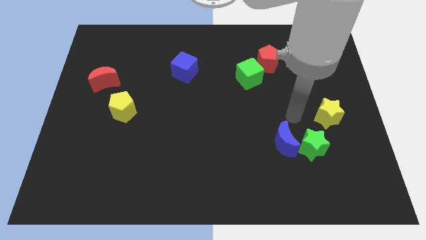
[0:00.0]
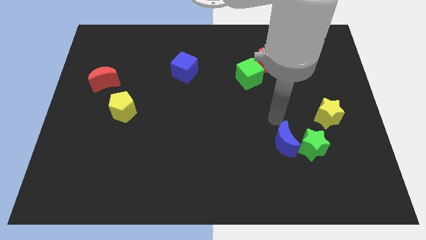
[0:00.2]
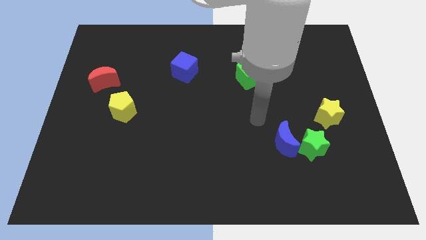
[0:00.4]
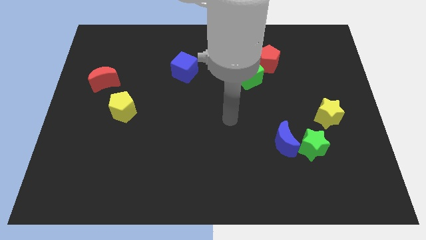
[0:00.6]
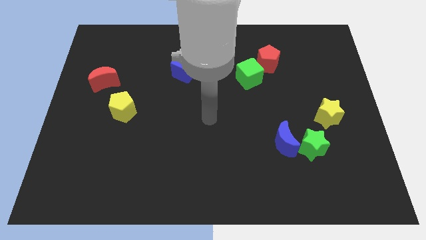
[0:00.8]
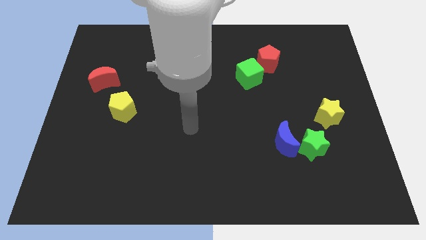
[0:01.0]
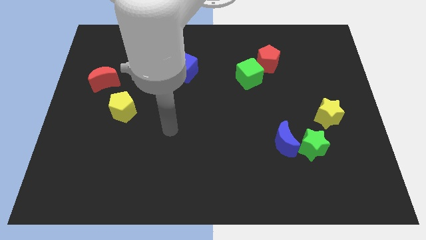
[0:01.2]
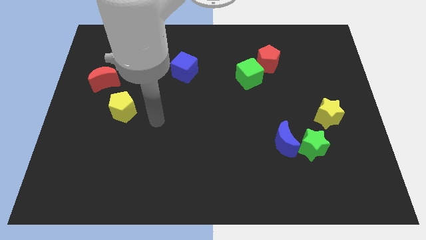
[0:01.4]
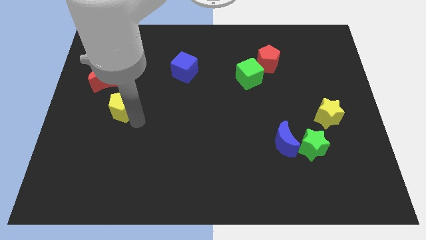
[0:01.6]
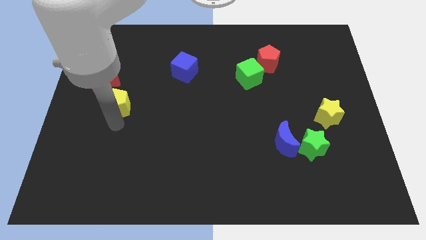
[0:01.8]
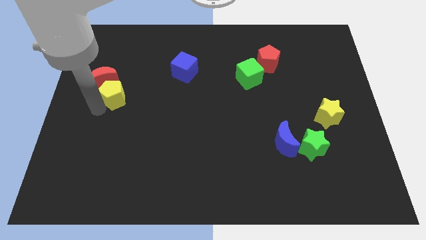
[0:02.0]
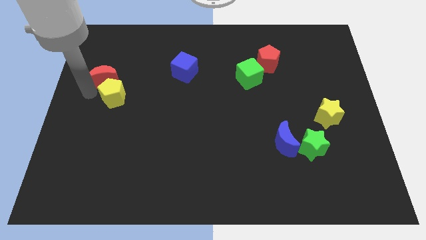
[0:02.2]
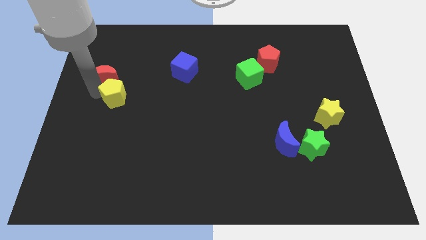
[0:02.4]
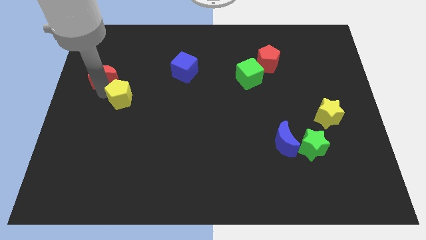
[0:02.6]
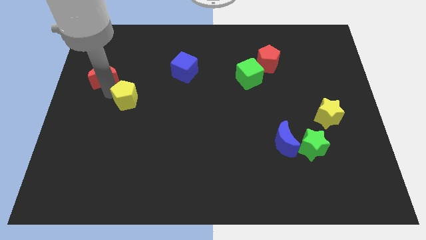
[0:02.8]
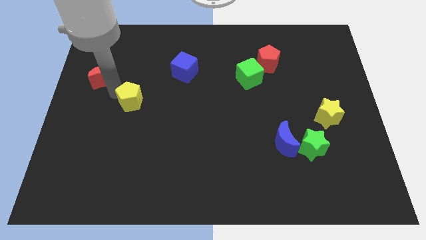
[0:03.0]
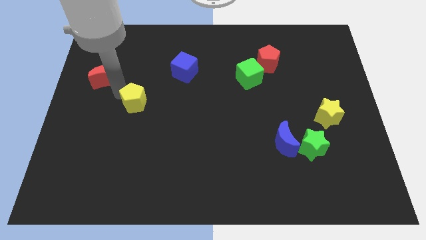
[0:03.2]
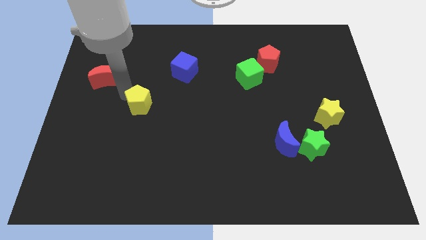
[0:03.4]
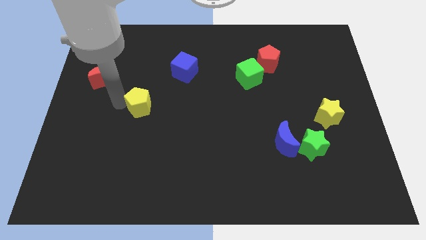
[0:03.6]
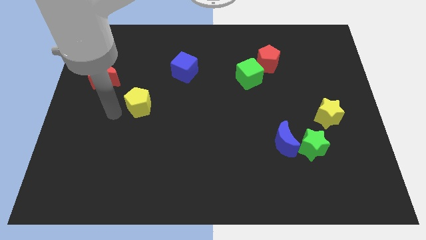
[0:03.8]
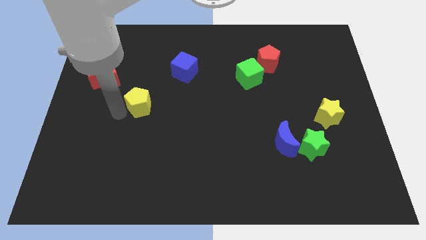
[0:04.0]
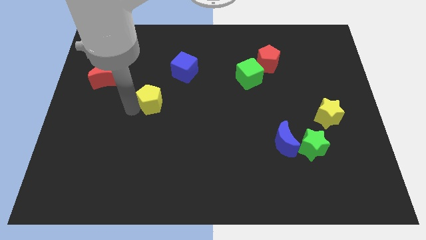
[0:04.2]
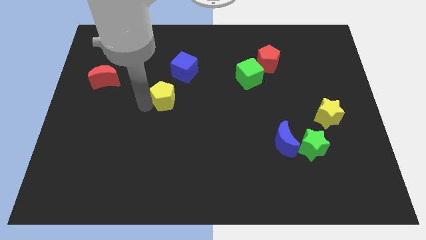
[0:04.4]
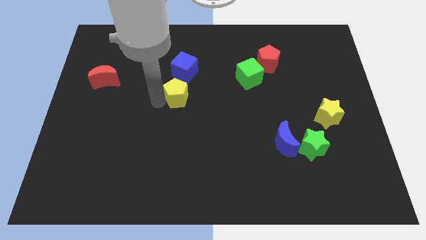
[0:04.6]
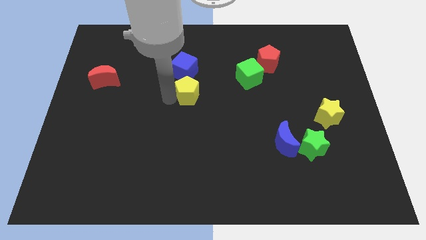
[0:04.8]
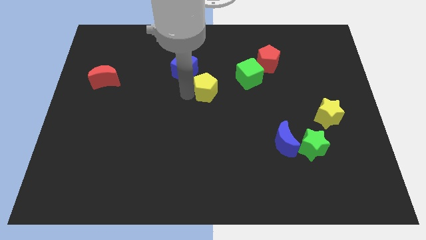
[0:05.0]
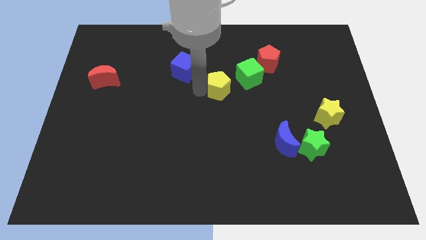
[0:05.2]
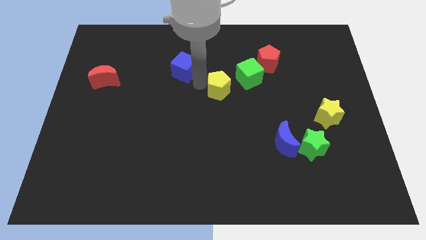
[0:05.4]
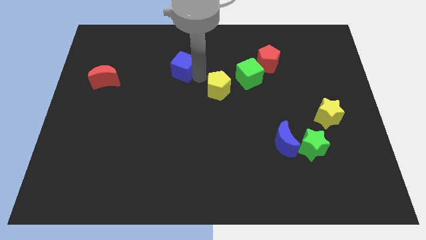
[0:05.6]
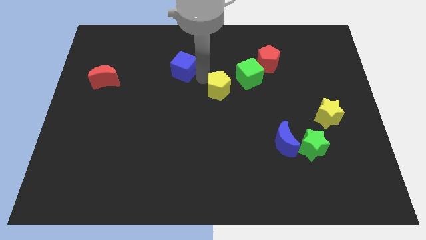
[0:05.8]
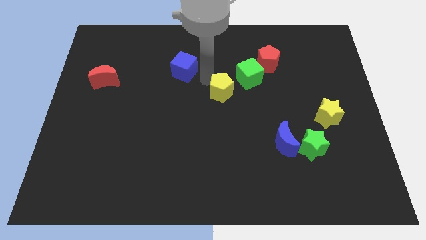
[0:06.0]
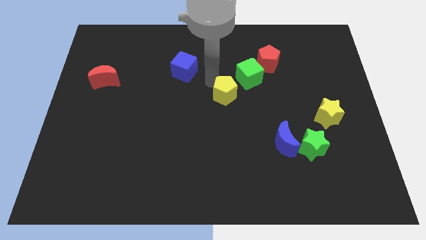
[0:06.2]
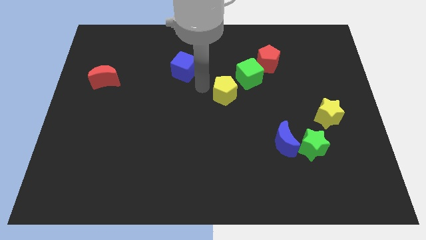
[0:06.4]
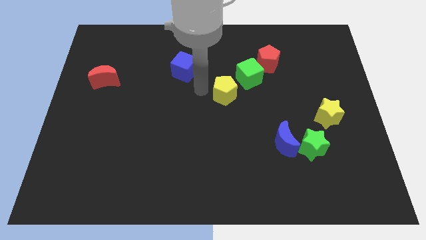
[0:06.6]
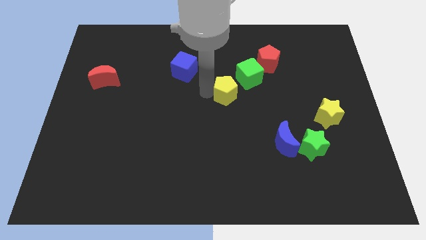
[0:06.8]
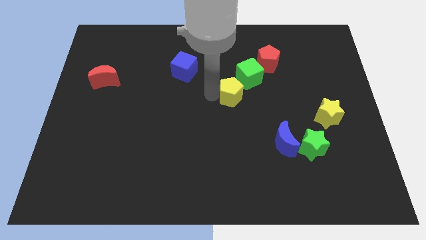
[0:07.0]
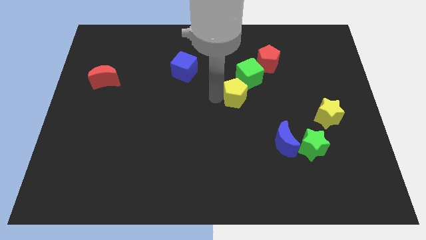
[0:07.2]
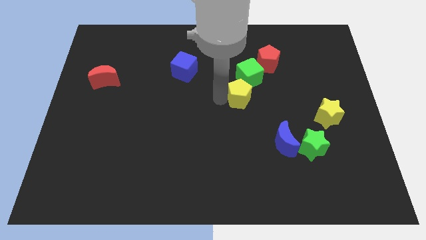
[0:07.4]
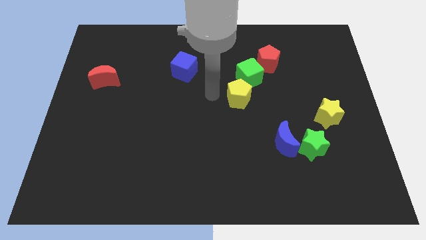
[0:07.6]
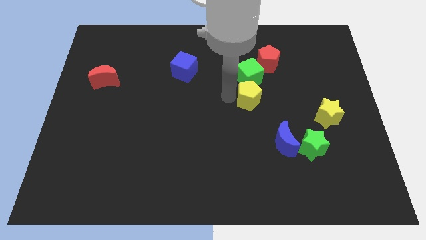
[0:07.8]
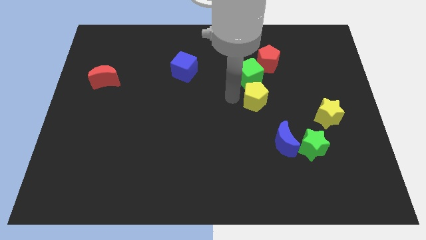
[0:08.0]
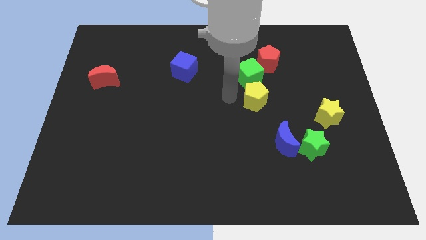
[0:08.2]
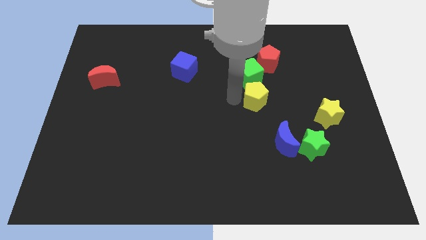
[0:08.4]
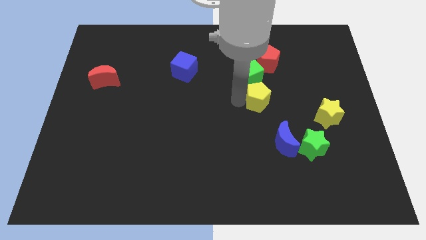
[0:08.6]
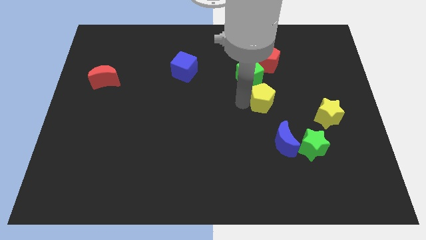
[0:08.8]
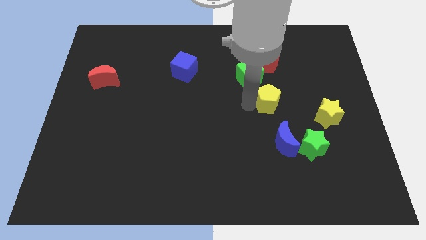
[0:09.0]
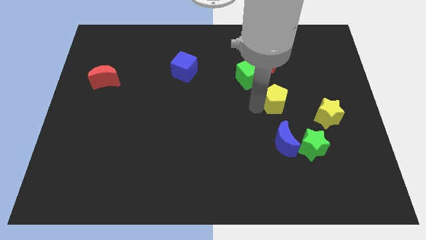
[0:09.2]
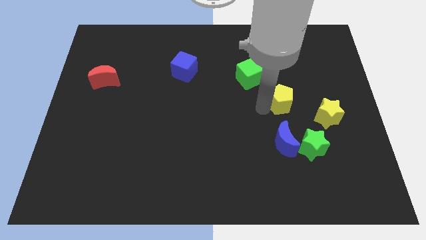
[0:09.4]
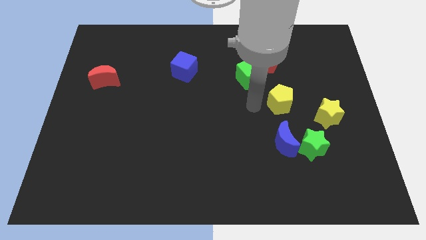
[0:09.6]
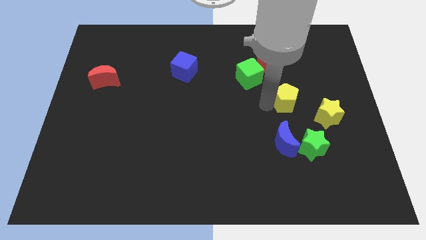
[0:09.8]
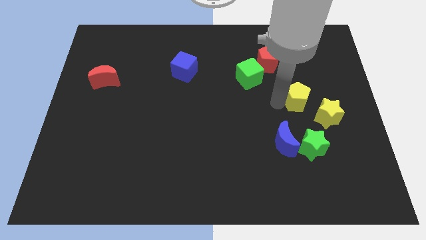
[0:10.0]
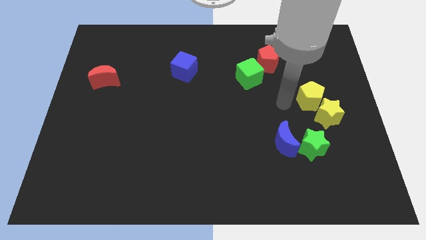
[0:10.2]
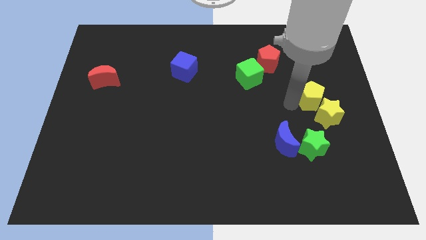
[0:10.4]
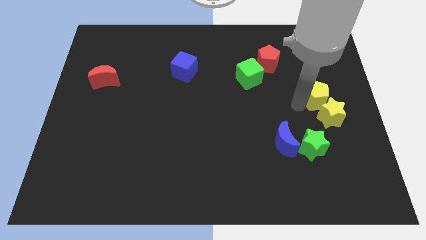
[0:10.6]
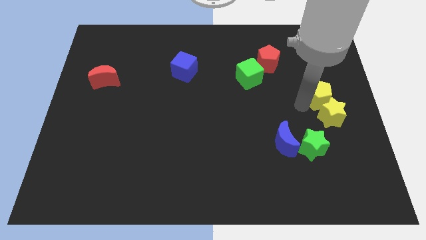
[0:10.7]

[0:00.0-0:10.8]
put the yellow pentagon to the center right

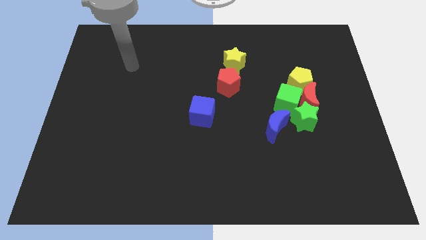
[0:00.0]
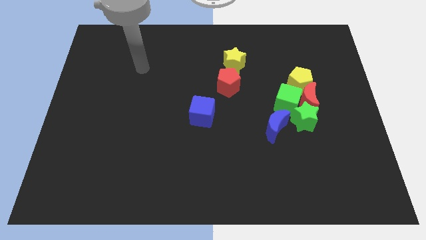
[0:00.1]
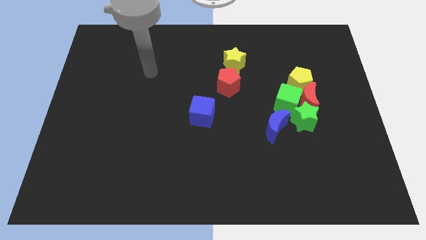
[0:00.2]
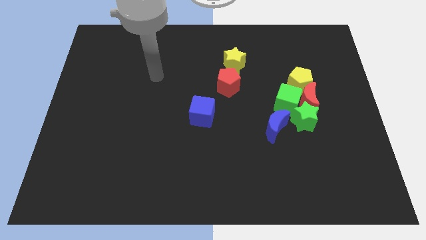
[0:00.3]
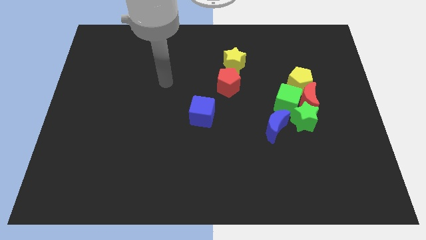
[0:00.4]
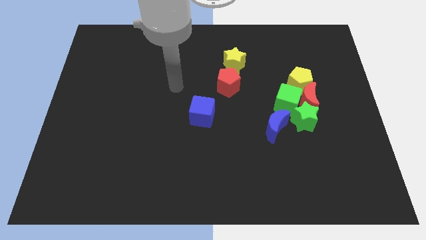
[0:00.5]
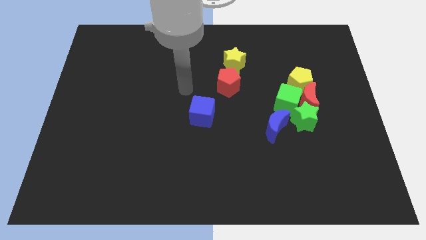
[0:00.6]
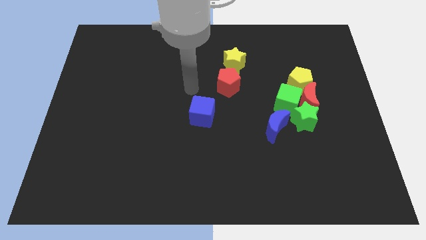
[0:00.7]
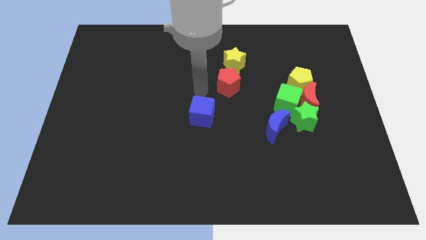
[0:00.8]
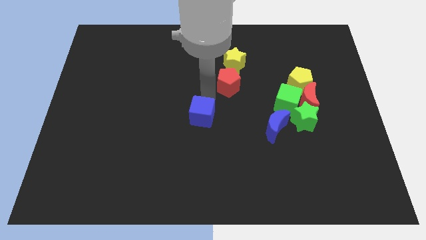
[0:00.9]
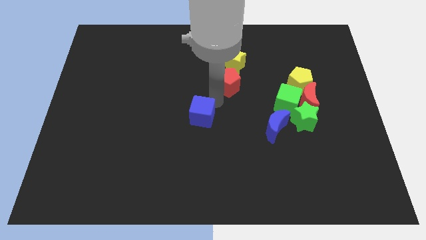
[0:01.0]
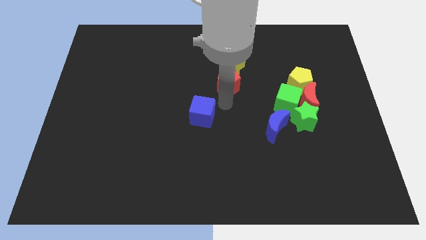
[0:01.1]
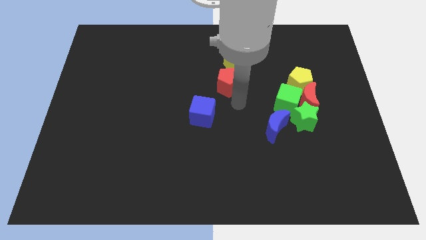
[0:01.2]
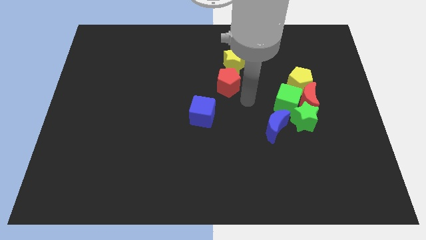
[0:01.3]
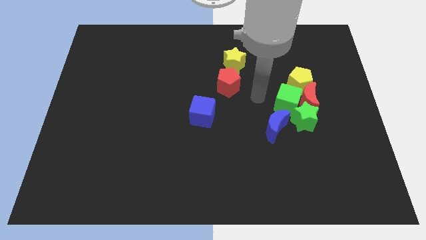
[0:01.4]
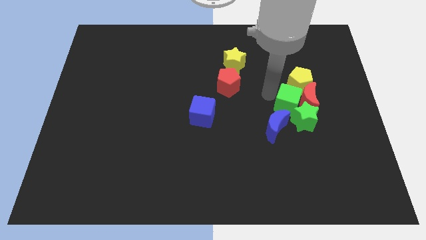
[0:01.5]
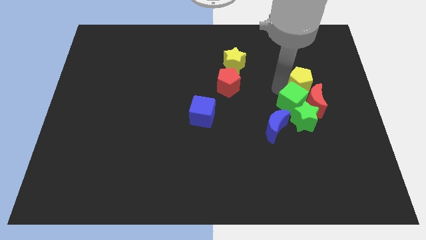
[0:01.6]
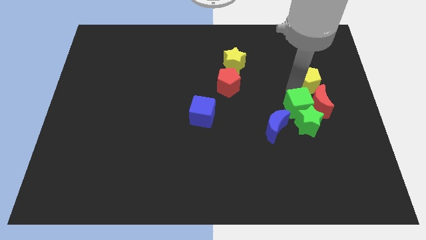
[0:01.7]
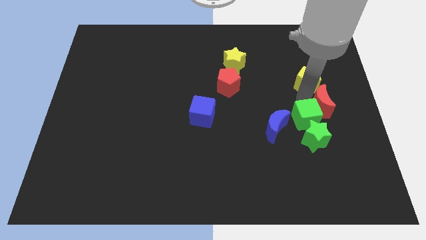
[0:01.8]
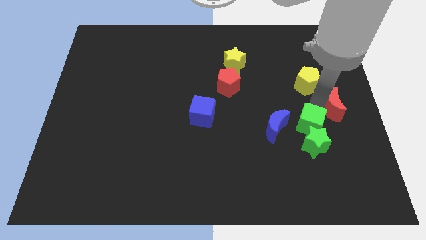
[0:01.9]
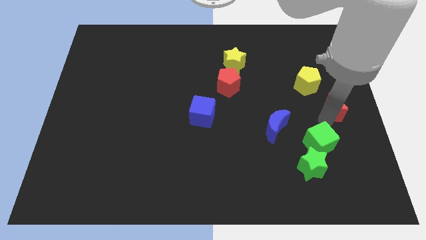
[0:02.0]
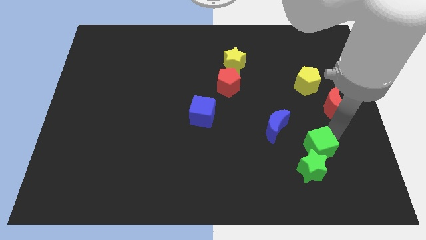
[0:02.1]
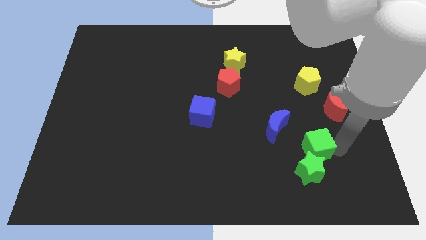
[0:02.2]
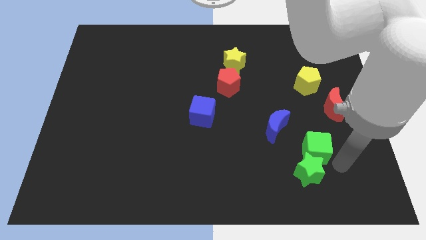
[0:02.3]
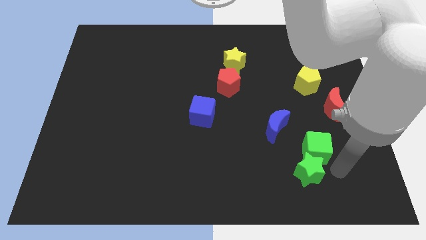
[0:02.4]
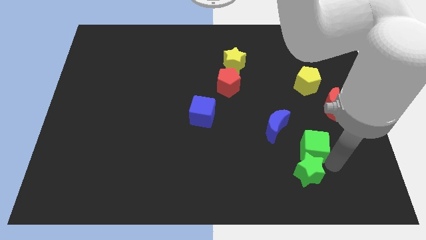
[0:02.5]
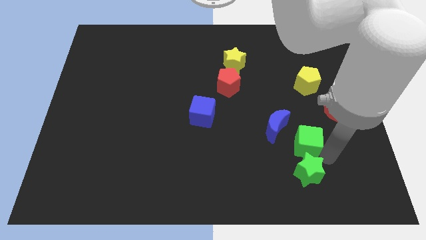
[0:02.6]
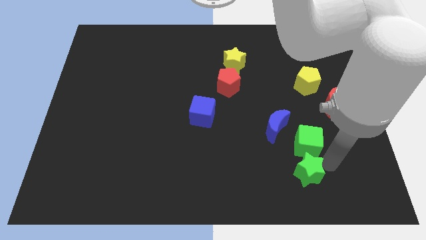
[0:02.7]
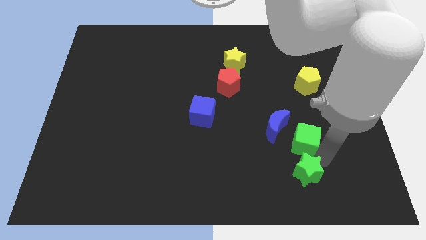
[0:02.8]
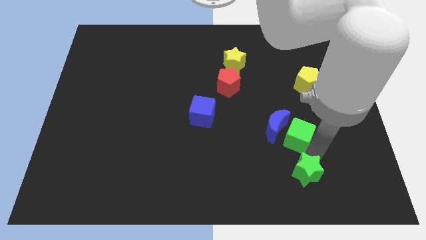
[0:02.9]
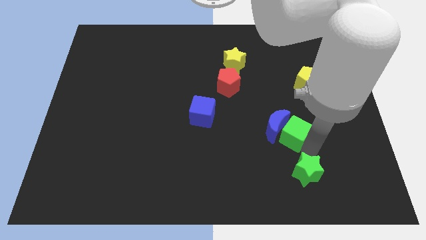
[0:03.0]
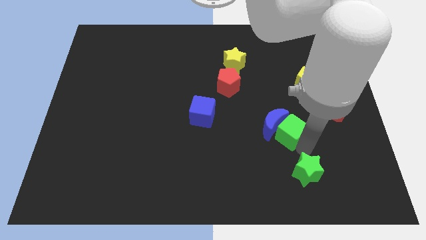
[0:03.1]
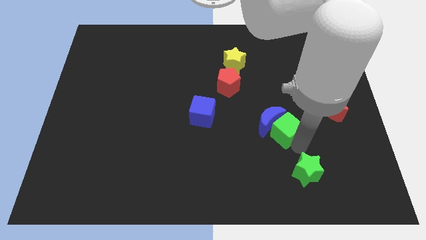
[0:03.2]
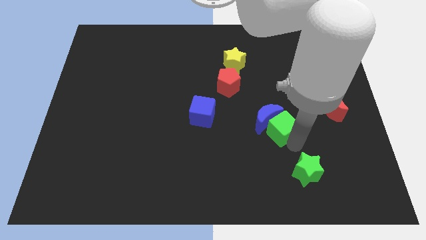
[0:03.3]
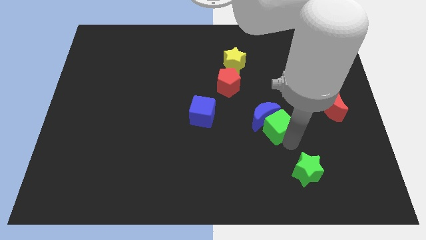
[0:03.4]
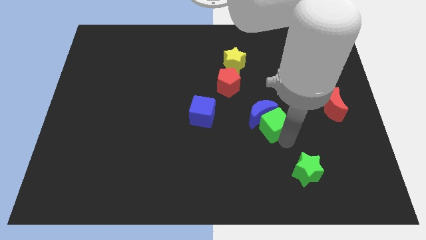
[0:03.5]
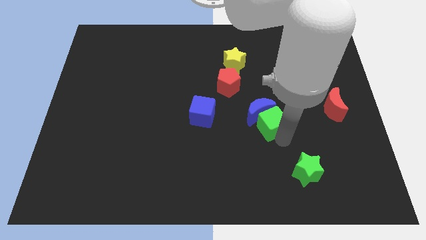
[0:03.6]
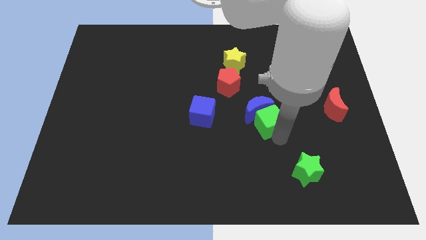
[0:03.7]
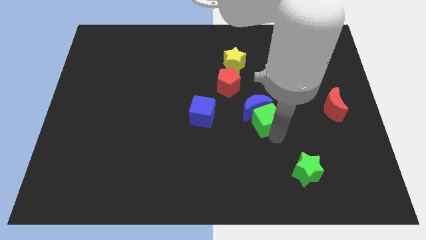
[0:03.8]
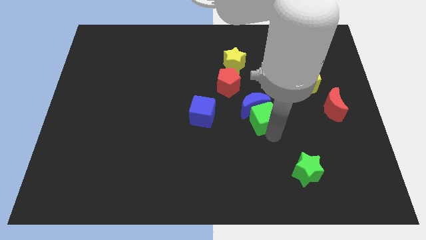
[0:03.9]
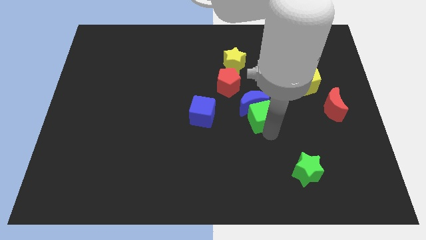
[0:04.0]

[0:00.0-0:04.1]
slide the green cube to the middle of the board
